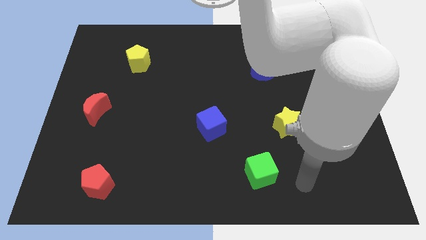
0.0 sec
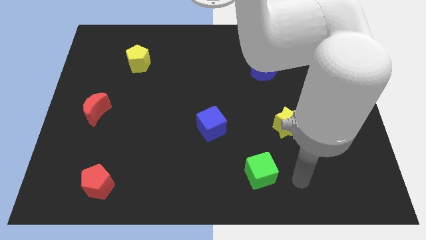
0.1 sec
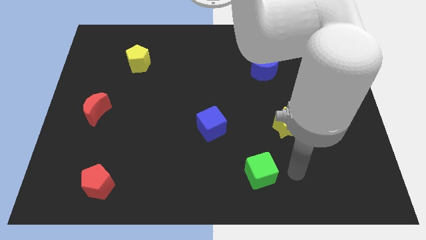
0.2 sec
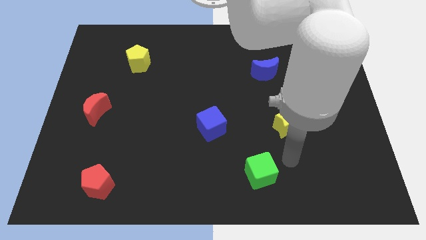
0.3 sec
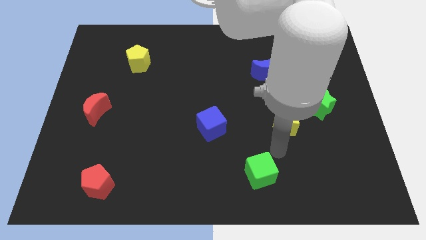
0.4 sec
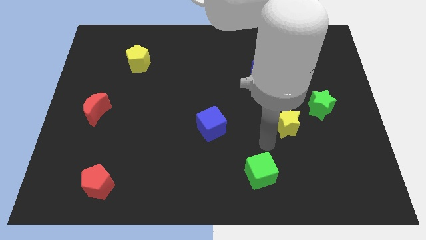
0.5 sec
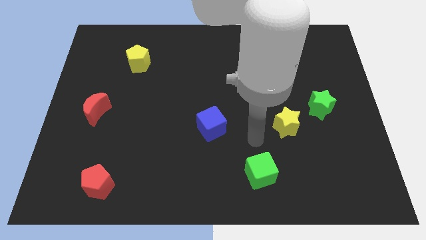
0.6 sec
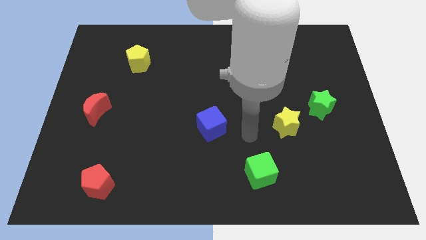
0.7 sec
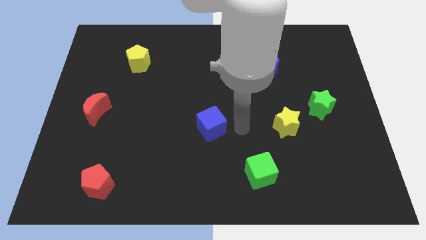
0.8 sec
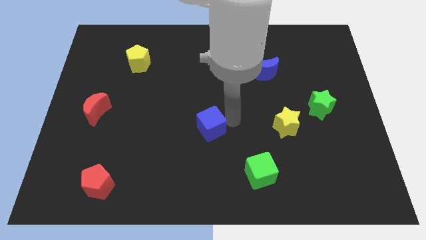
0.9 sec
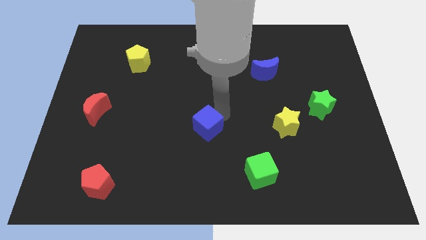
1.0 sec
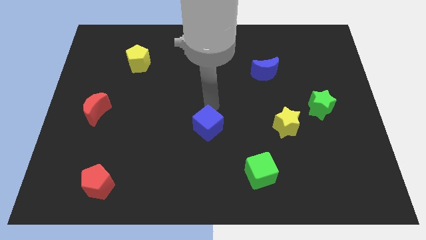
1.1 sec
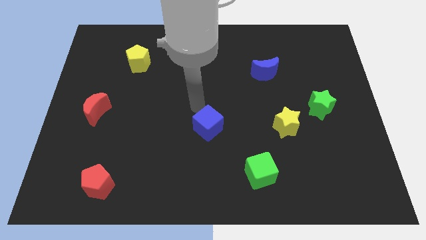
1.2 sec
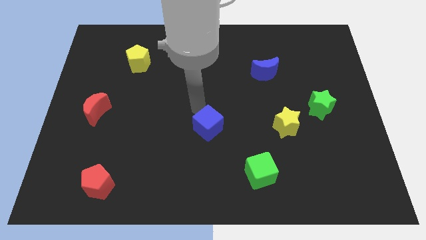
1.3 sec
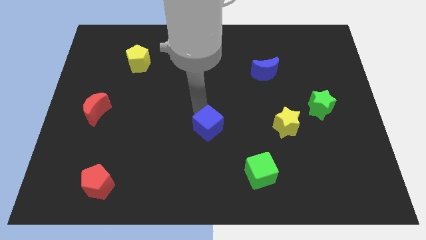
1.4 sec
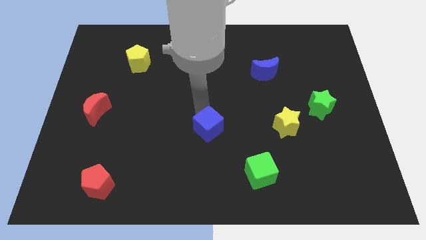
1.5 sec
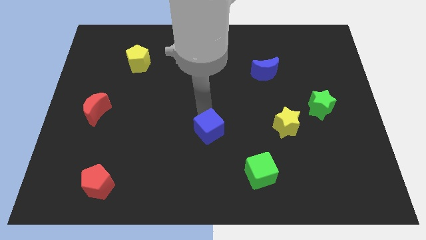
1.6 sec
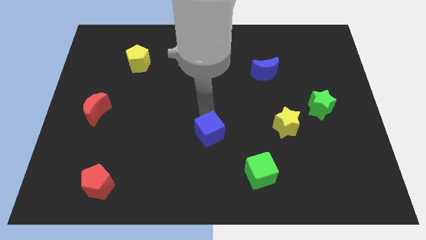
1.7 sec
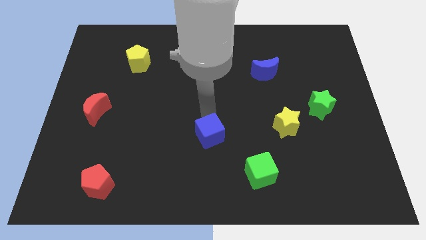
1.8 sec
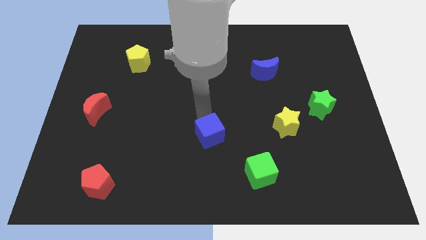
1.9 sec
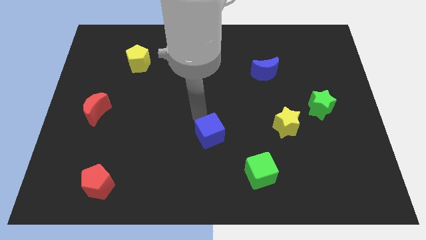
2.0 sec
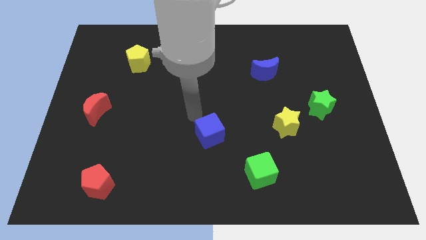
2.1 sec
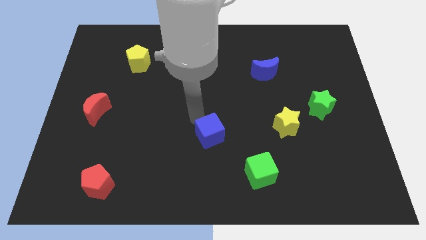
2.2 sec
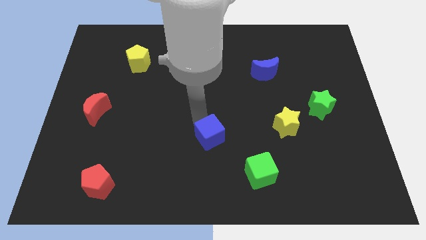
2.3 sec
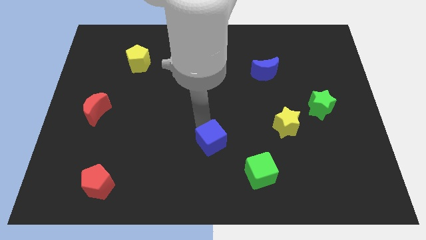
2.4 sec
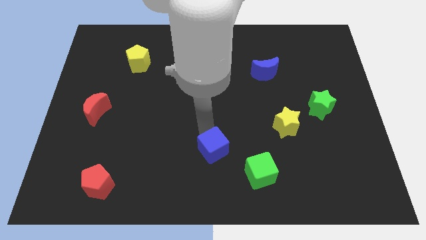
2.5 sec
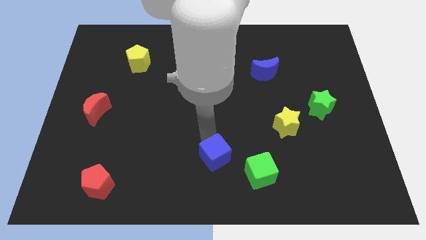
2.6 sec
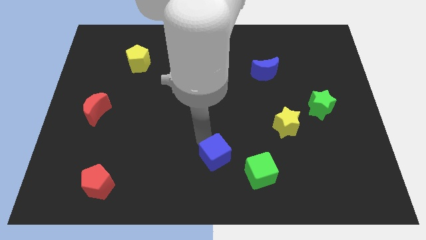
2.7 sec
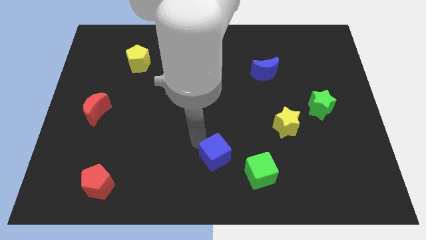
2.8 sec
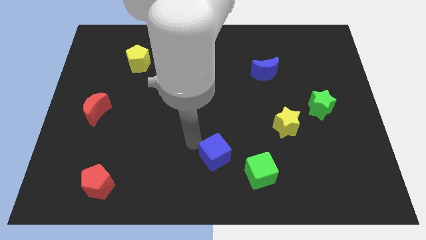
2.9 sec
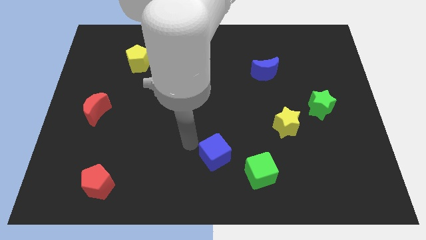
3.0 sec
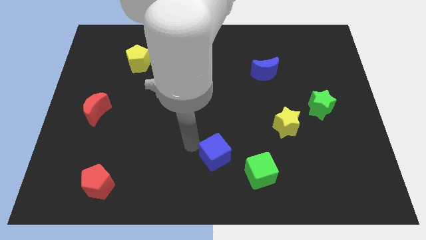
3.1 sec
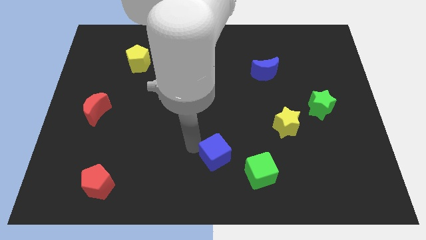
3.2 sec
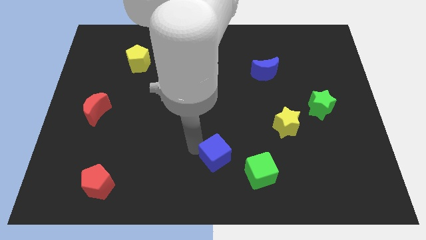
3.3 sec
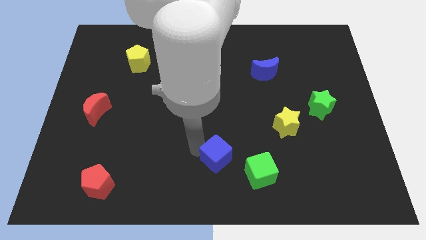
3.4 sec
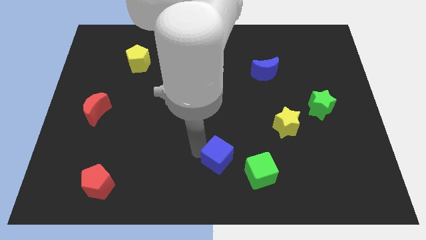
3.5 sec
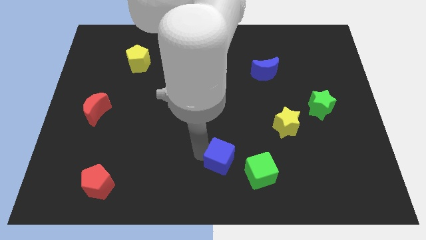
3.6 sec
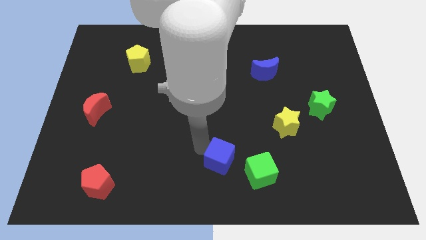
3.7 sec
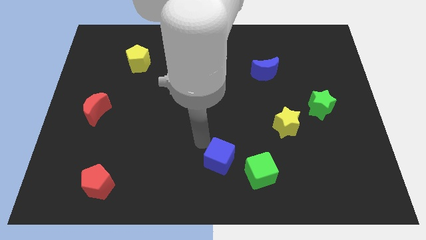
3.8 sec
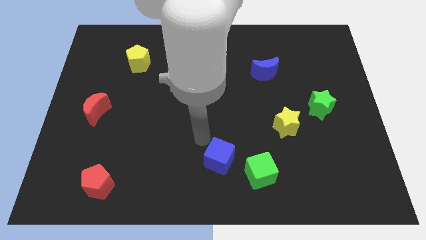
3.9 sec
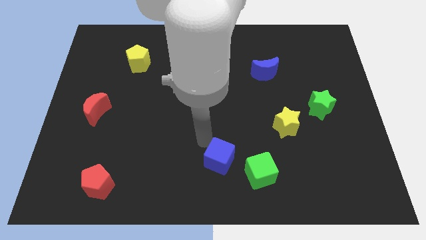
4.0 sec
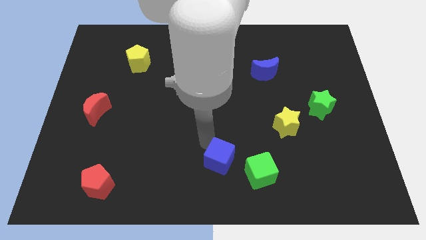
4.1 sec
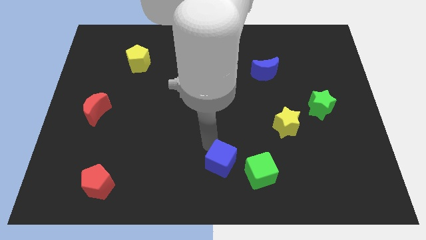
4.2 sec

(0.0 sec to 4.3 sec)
push the blue cube downwards and right diagonally somewhat

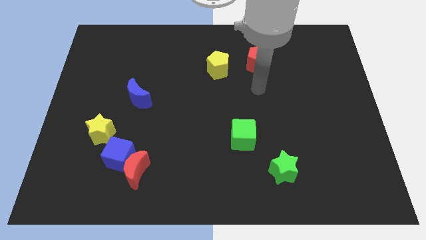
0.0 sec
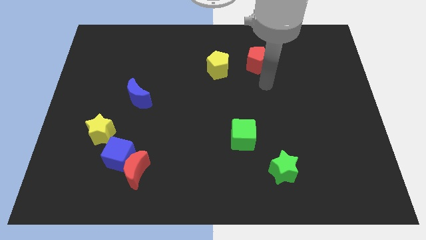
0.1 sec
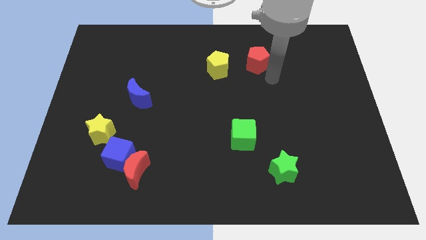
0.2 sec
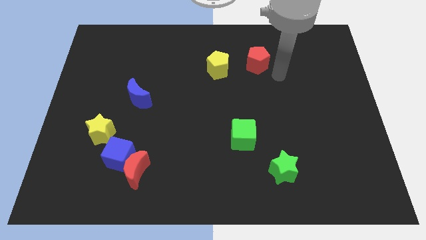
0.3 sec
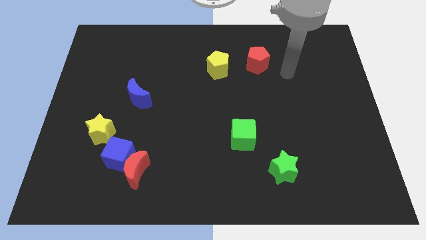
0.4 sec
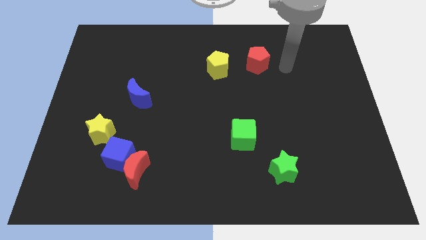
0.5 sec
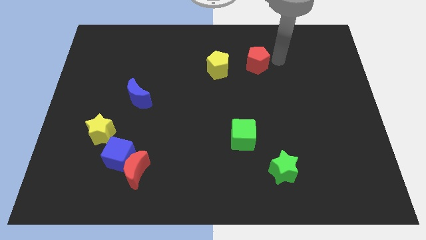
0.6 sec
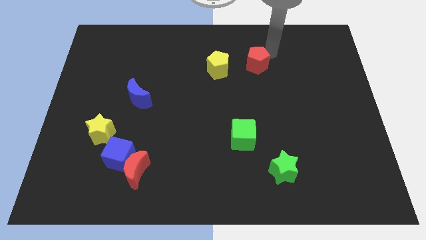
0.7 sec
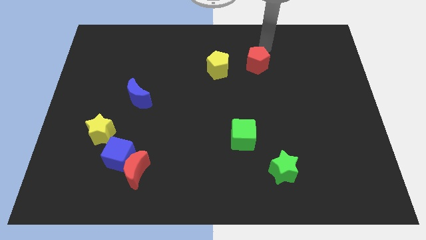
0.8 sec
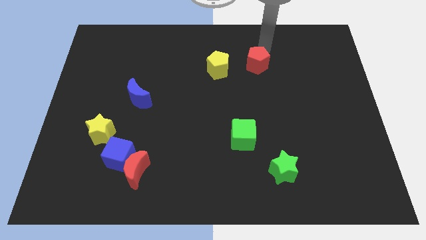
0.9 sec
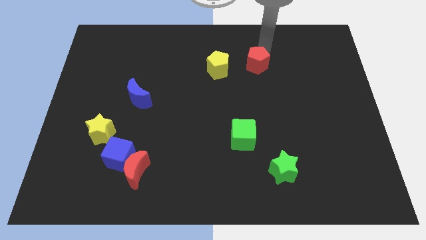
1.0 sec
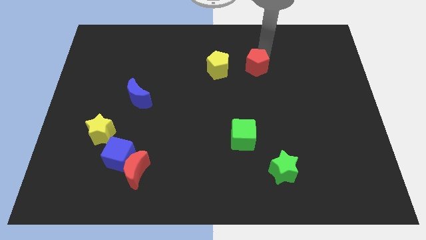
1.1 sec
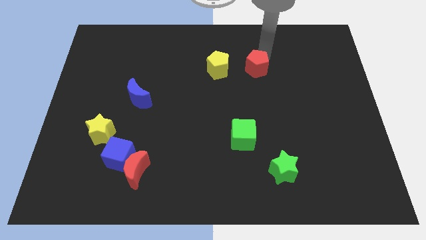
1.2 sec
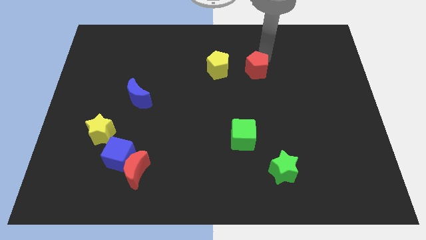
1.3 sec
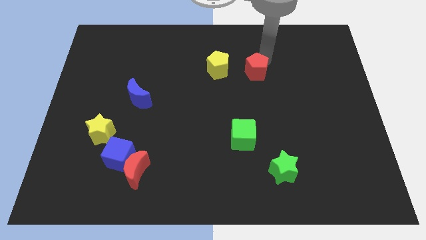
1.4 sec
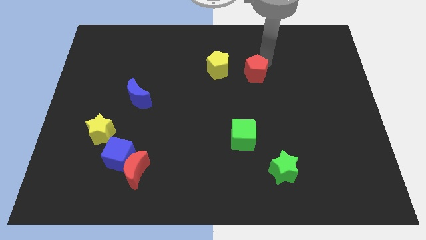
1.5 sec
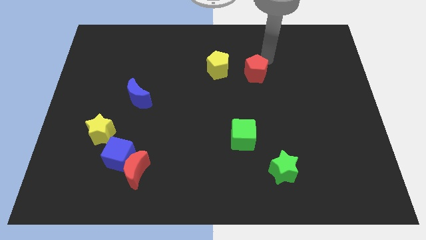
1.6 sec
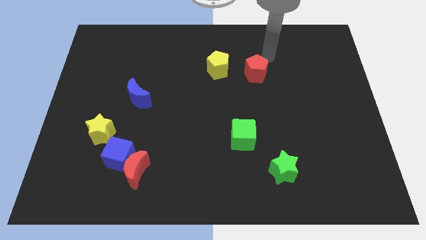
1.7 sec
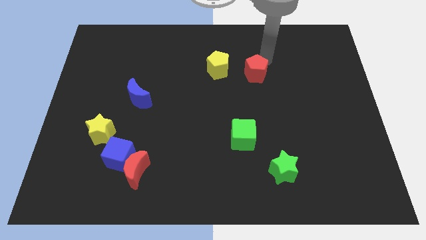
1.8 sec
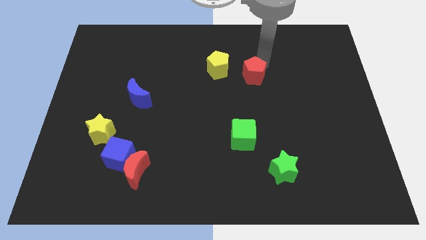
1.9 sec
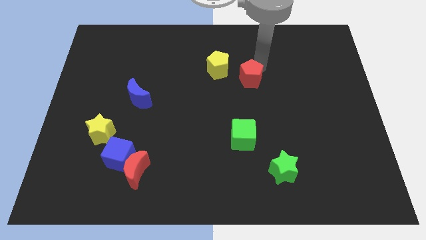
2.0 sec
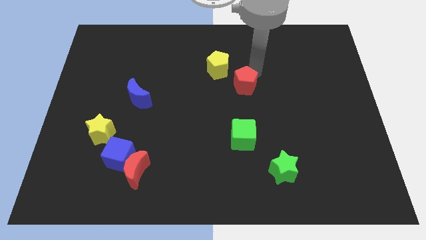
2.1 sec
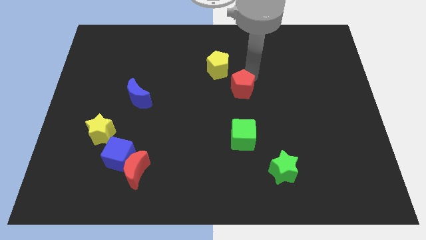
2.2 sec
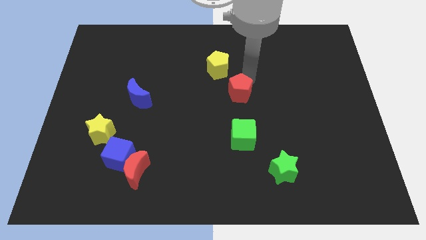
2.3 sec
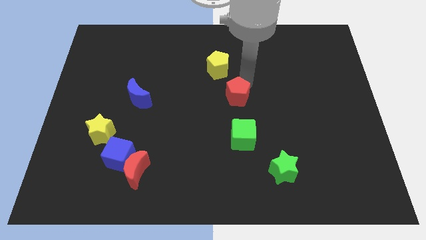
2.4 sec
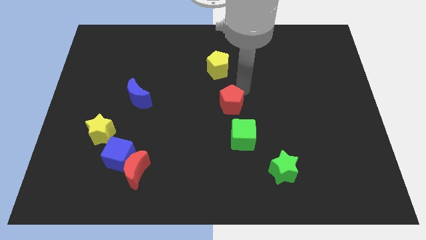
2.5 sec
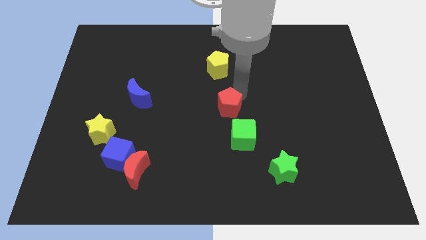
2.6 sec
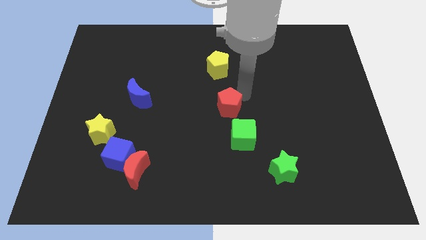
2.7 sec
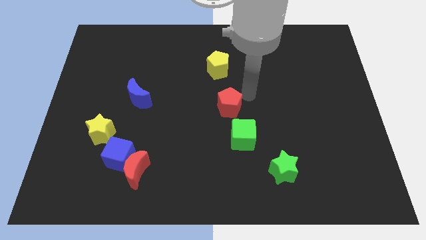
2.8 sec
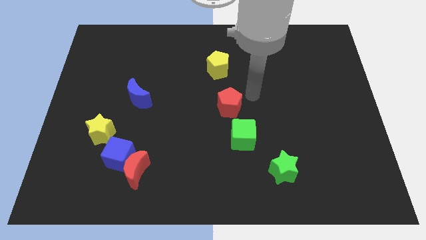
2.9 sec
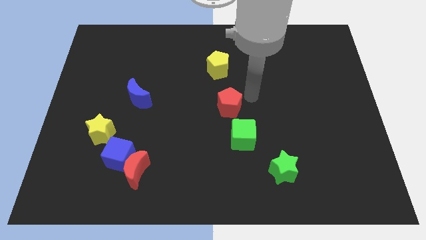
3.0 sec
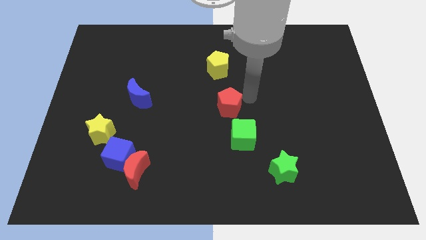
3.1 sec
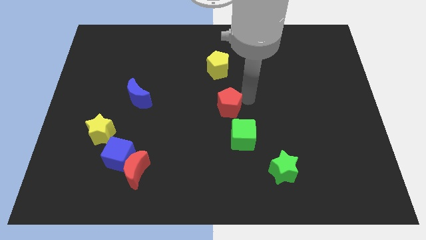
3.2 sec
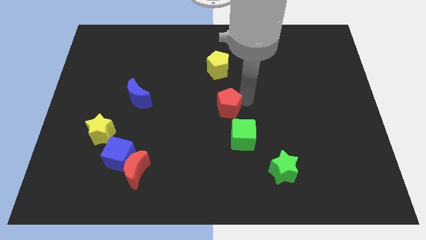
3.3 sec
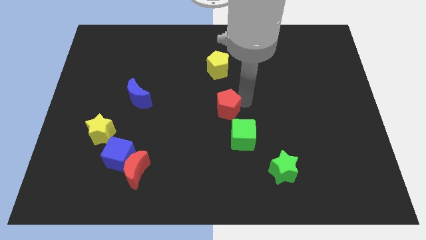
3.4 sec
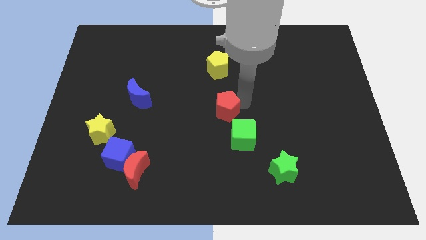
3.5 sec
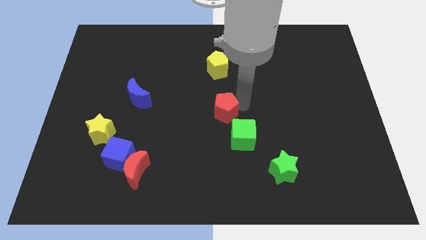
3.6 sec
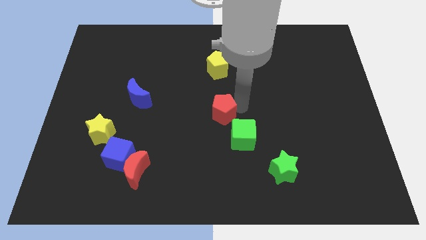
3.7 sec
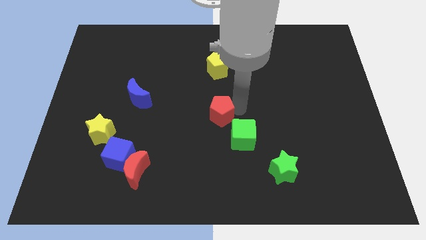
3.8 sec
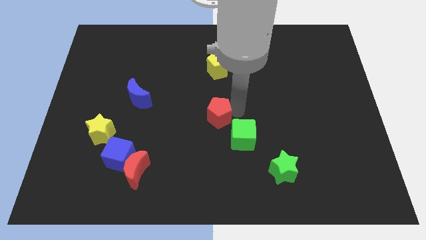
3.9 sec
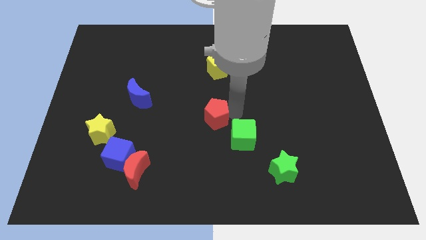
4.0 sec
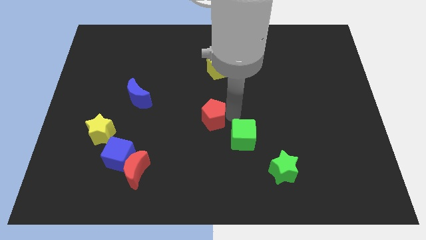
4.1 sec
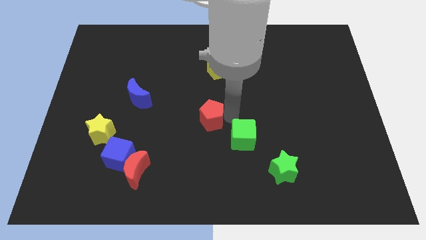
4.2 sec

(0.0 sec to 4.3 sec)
push the red pentagon diagonally down and left
